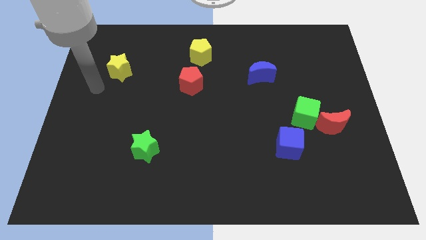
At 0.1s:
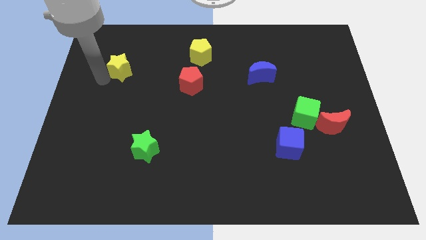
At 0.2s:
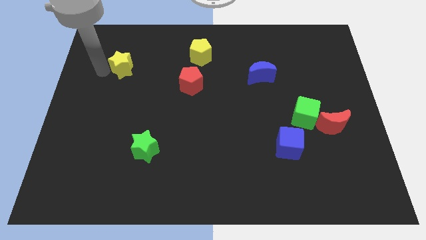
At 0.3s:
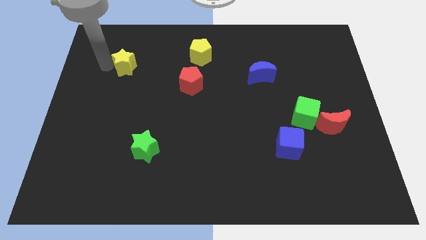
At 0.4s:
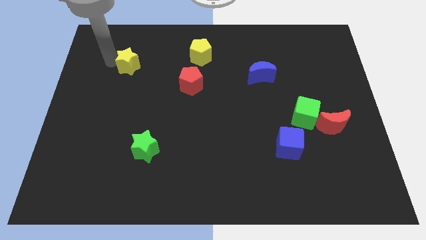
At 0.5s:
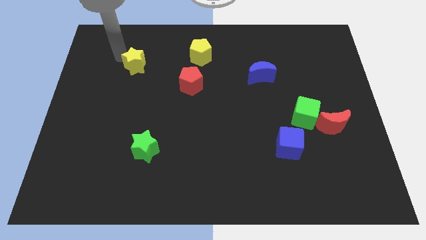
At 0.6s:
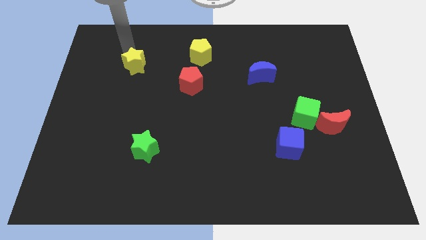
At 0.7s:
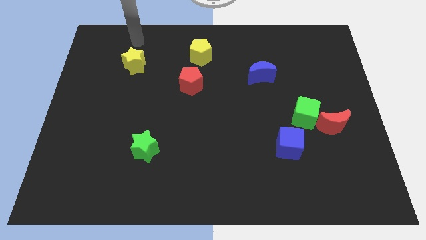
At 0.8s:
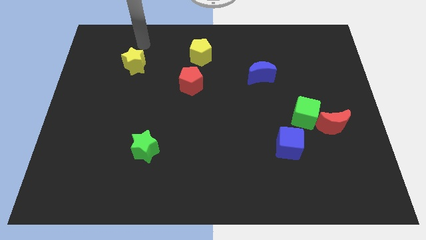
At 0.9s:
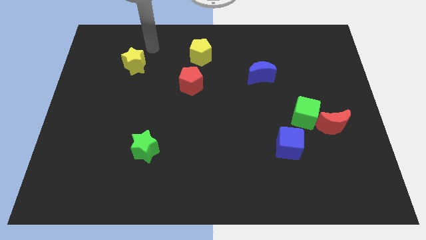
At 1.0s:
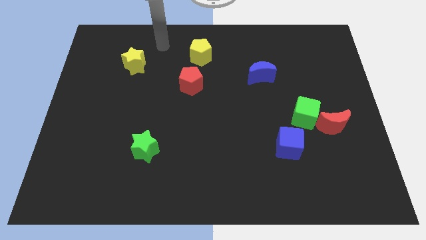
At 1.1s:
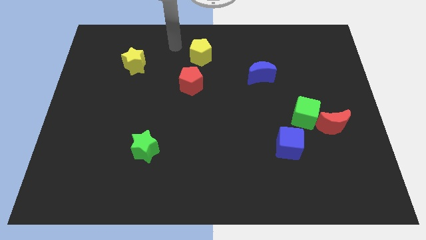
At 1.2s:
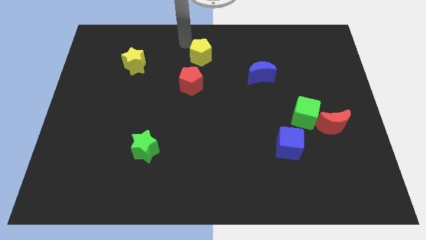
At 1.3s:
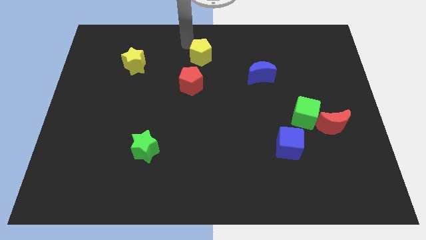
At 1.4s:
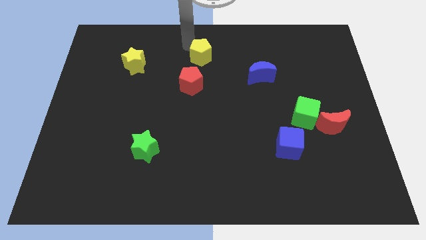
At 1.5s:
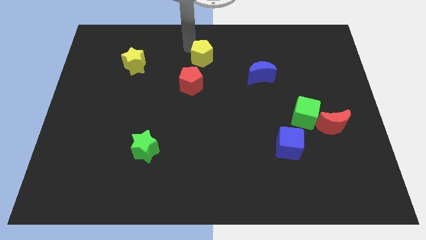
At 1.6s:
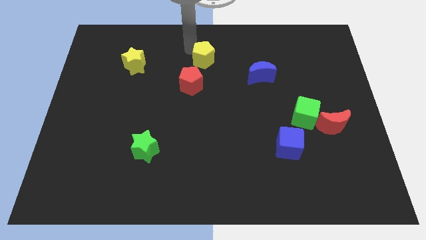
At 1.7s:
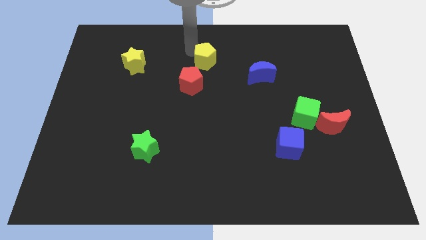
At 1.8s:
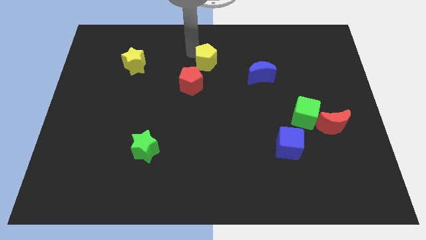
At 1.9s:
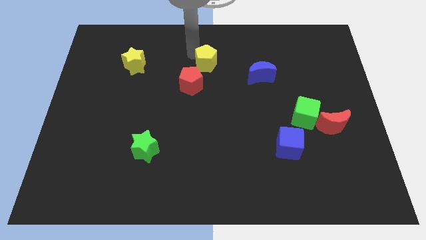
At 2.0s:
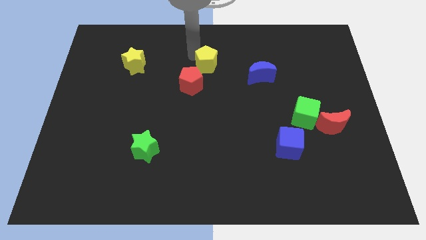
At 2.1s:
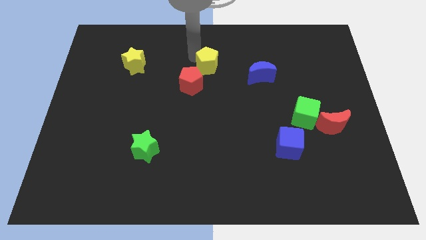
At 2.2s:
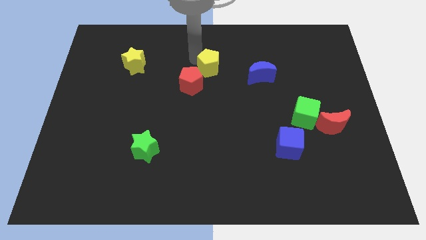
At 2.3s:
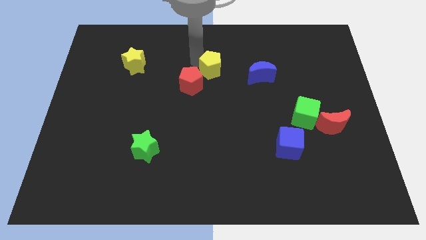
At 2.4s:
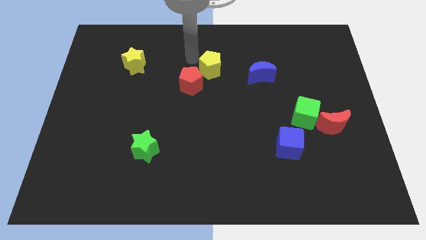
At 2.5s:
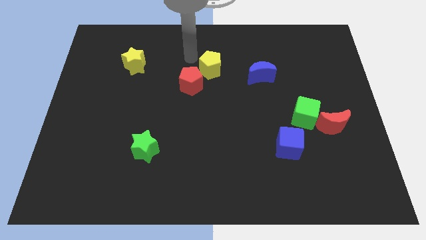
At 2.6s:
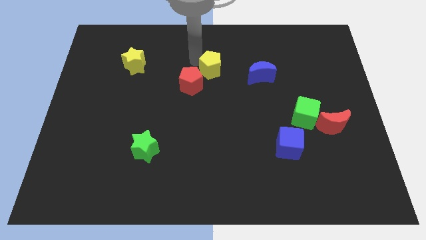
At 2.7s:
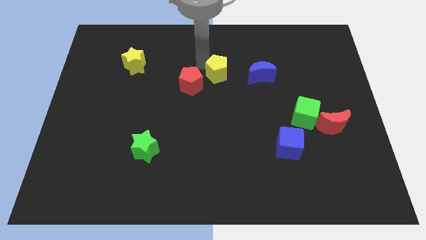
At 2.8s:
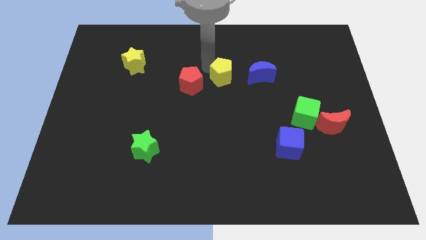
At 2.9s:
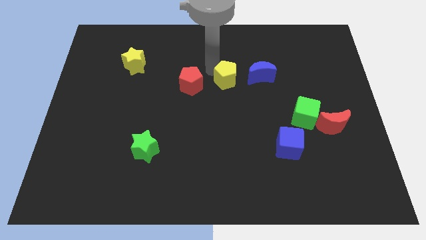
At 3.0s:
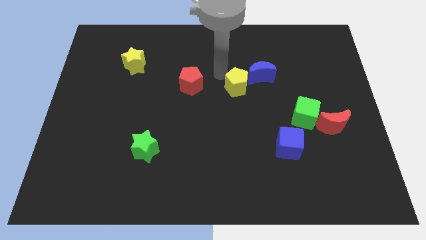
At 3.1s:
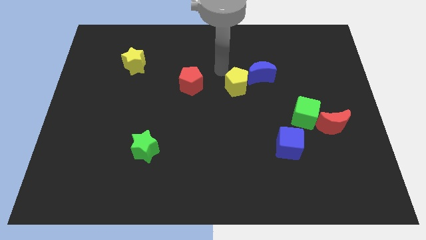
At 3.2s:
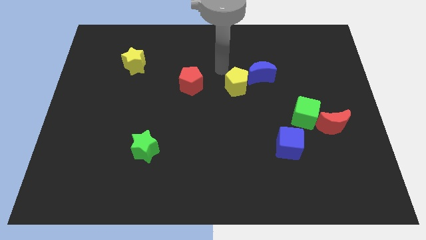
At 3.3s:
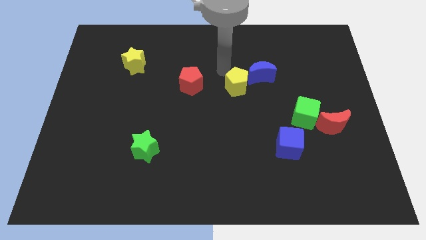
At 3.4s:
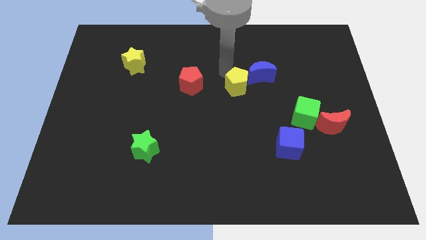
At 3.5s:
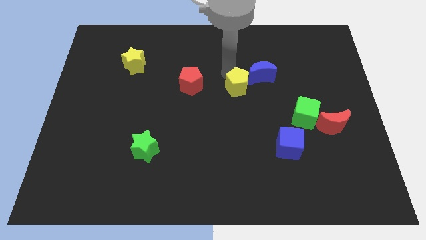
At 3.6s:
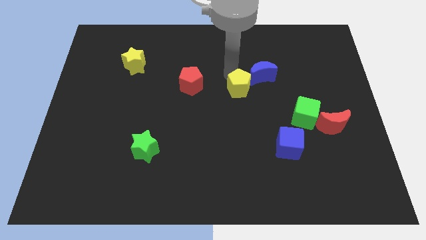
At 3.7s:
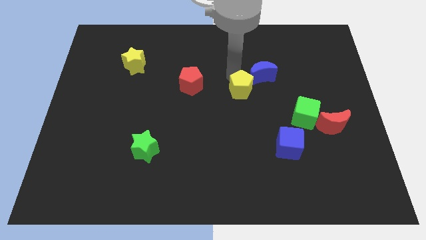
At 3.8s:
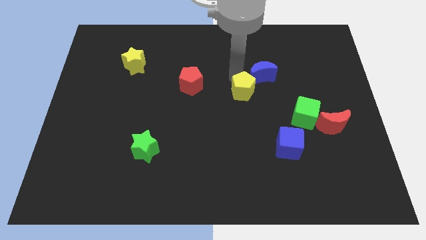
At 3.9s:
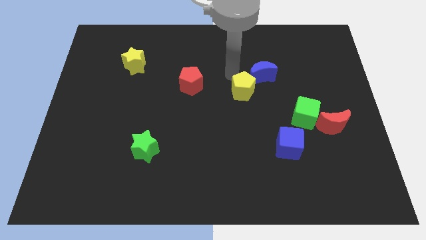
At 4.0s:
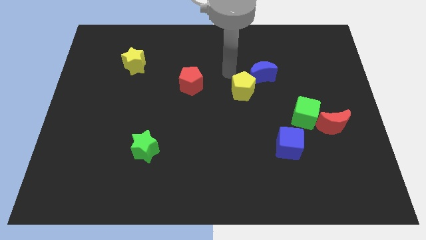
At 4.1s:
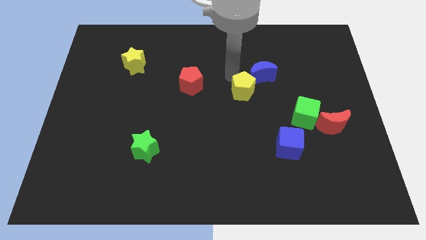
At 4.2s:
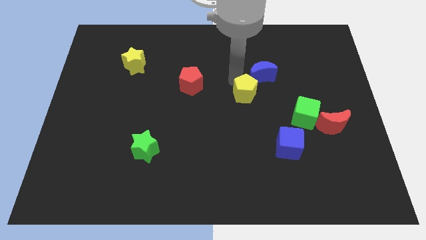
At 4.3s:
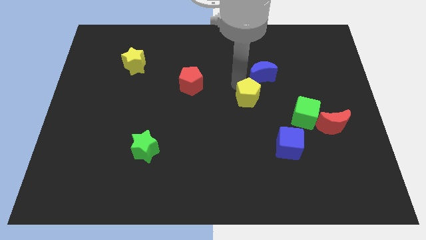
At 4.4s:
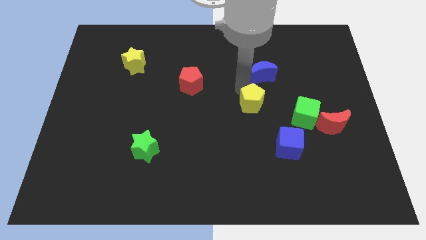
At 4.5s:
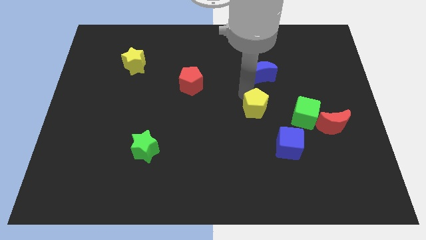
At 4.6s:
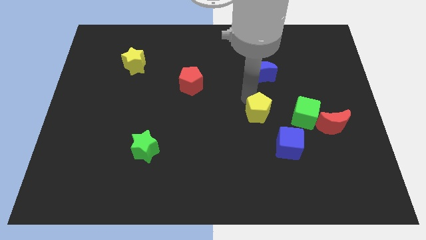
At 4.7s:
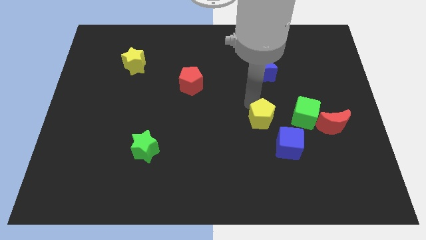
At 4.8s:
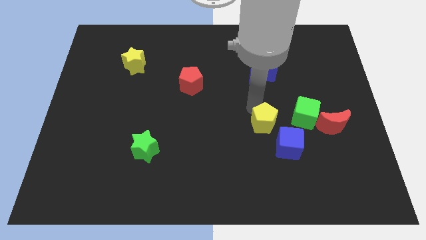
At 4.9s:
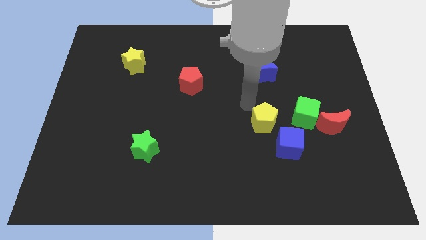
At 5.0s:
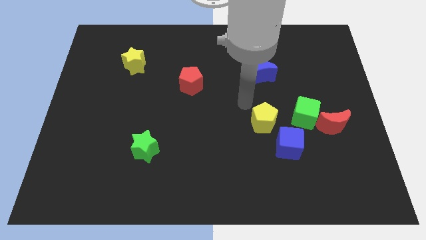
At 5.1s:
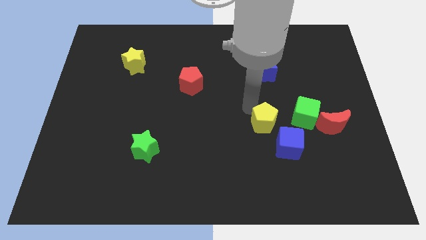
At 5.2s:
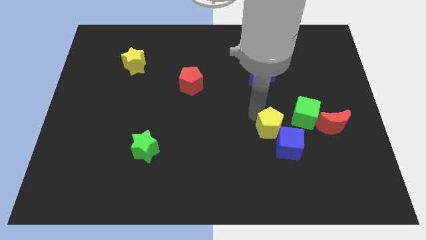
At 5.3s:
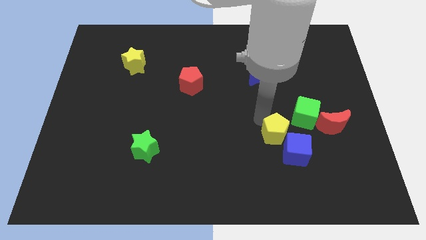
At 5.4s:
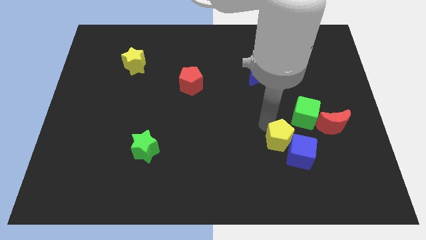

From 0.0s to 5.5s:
put the yellow pentagon to the blue cube

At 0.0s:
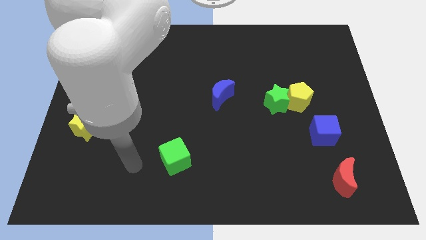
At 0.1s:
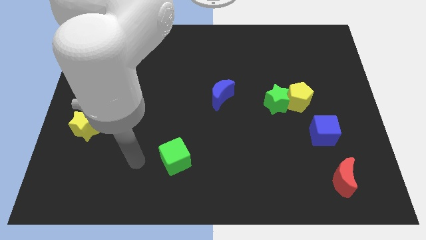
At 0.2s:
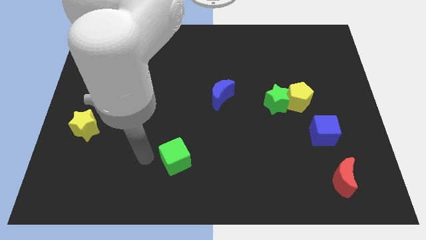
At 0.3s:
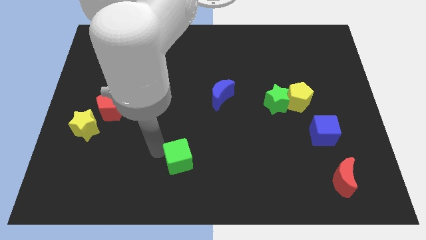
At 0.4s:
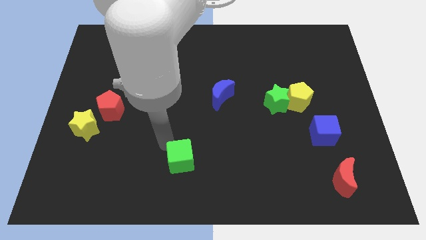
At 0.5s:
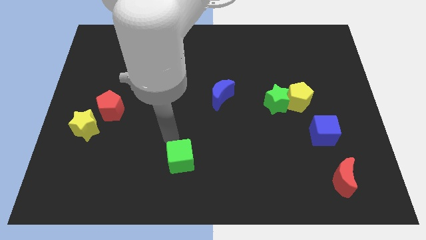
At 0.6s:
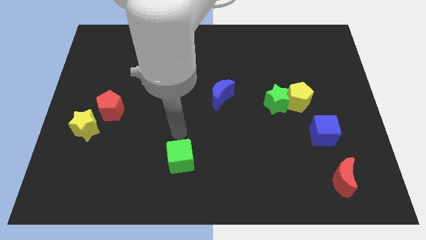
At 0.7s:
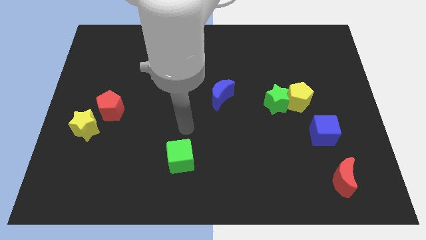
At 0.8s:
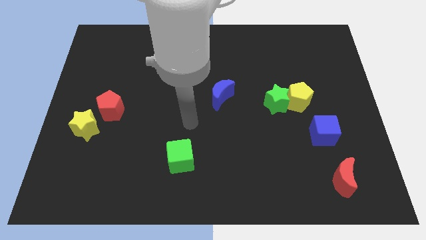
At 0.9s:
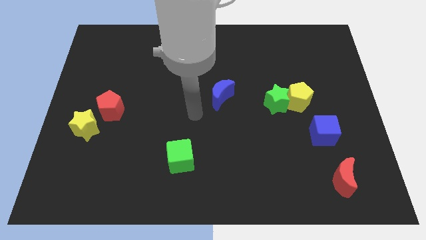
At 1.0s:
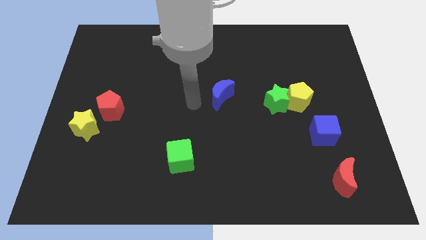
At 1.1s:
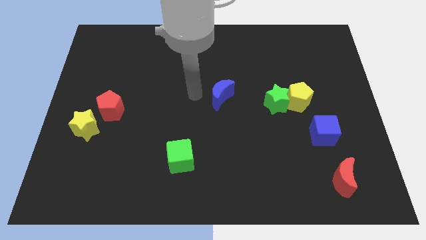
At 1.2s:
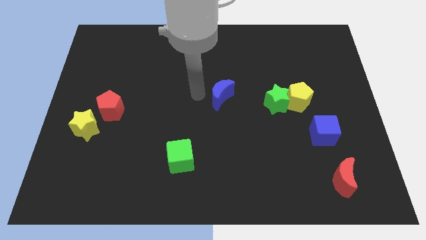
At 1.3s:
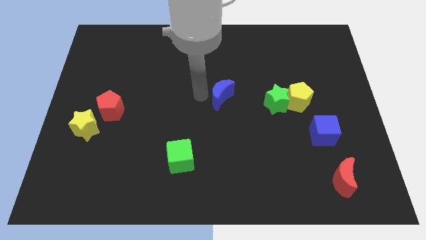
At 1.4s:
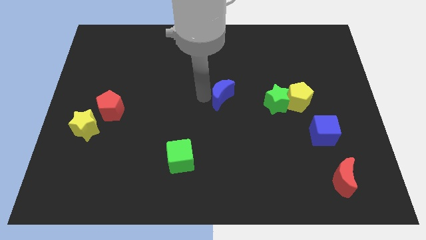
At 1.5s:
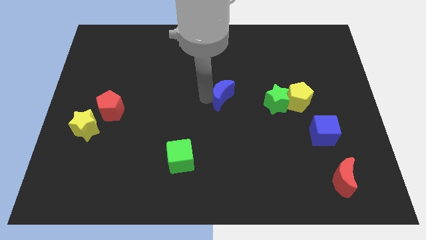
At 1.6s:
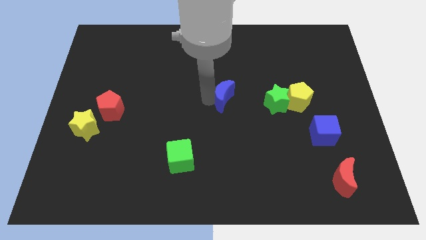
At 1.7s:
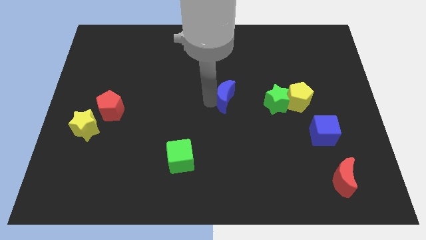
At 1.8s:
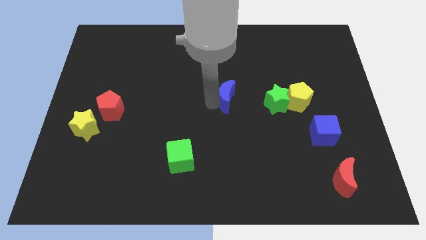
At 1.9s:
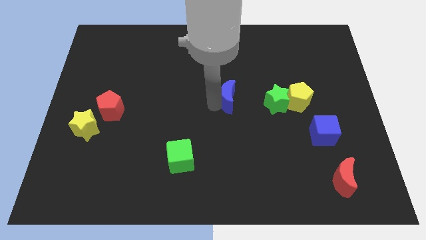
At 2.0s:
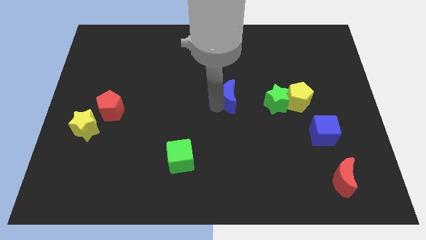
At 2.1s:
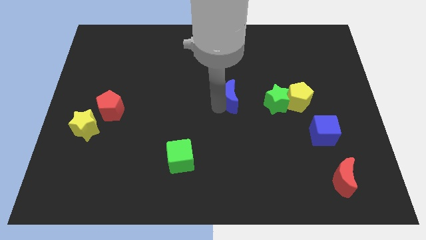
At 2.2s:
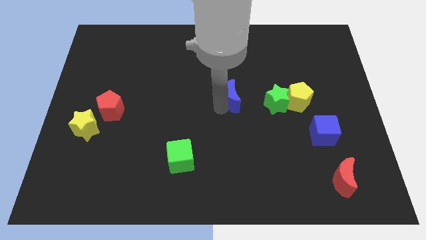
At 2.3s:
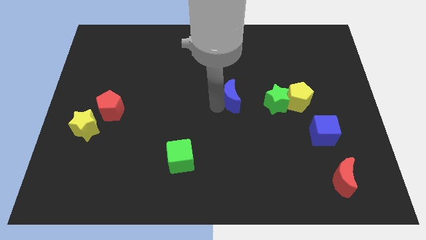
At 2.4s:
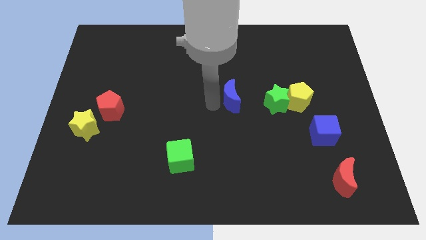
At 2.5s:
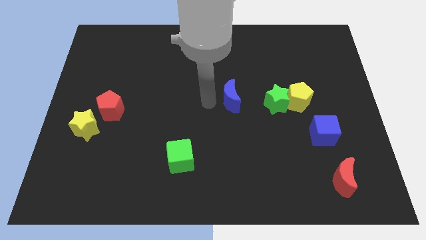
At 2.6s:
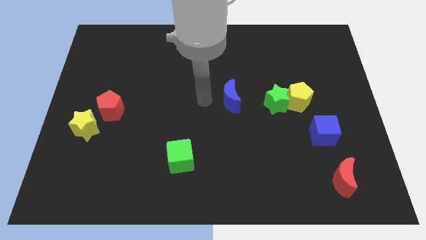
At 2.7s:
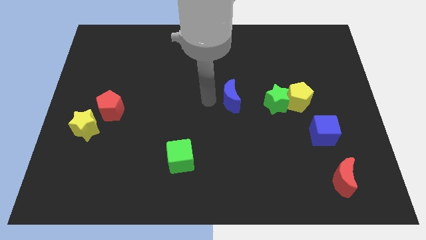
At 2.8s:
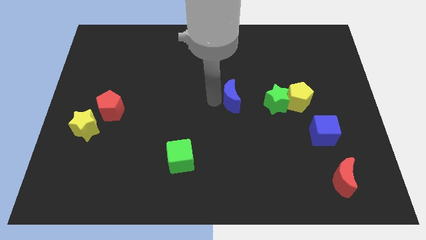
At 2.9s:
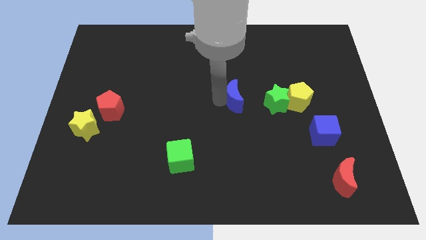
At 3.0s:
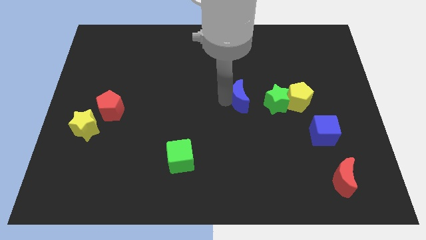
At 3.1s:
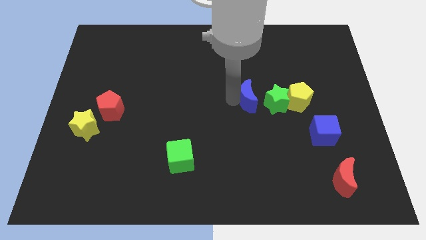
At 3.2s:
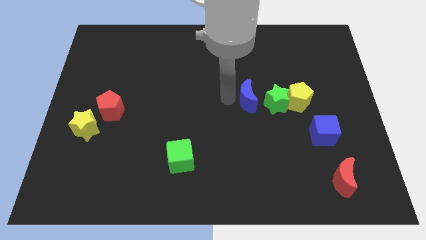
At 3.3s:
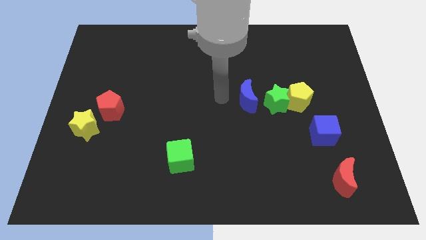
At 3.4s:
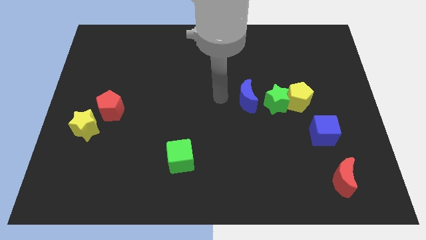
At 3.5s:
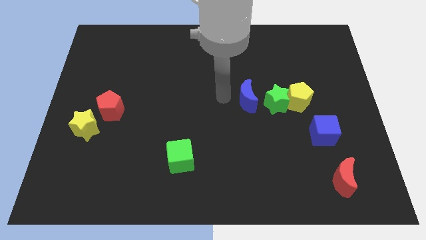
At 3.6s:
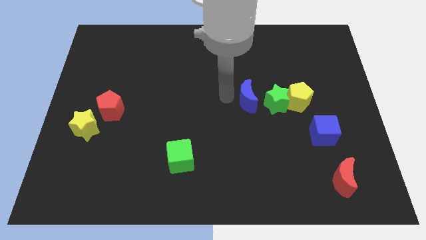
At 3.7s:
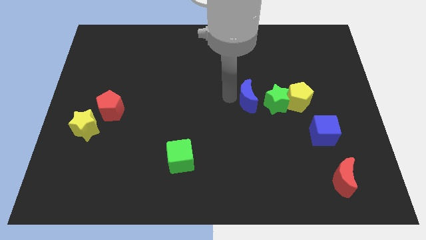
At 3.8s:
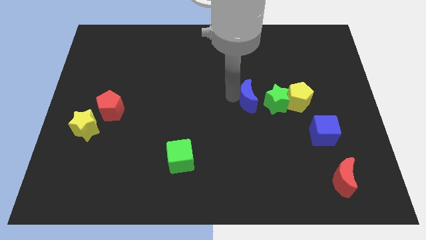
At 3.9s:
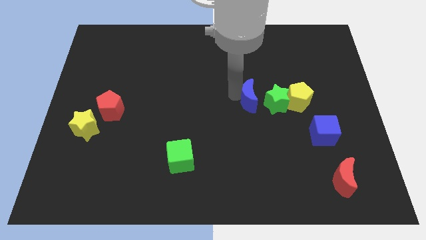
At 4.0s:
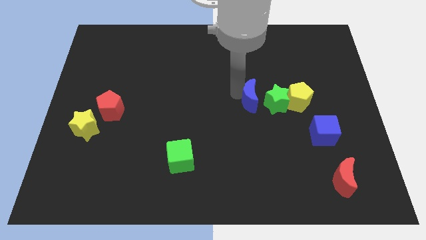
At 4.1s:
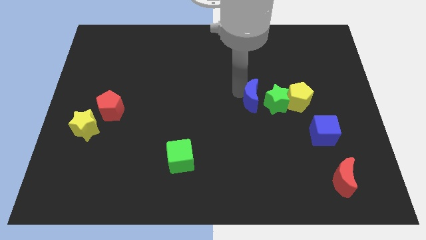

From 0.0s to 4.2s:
push the blue moon towards the green star
